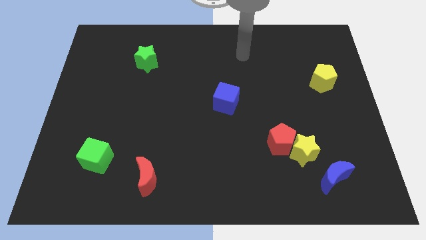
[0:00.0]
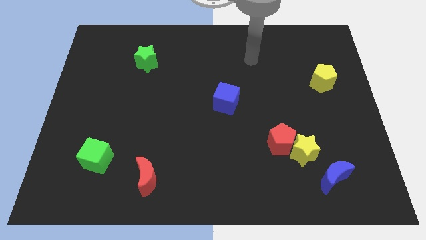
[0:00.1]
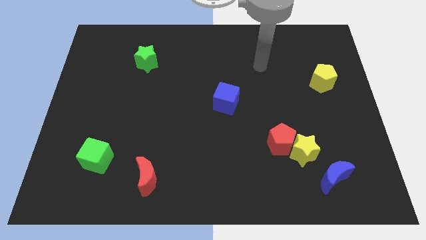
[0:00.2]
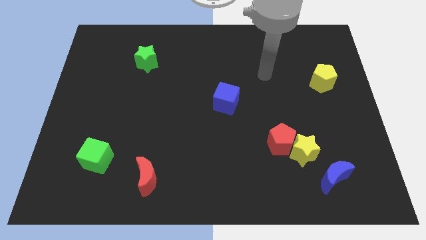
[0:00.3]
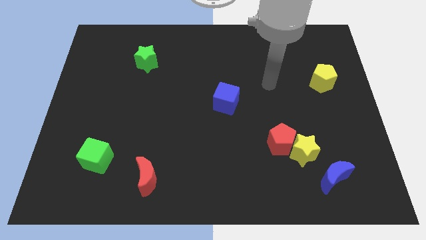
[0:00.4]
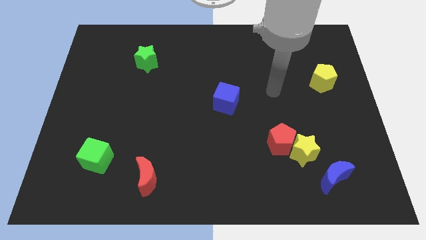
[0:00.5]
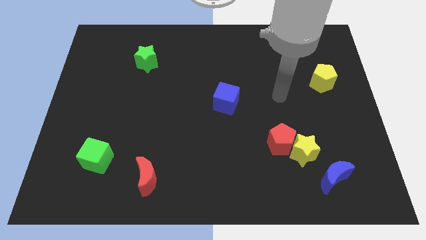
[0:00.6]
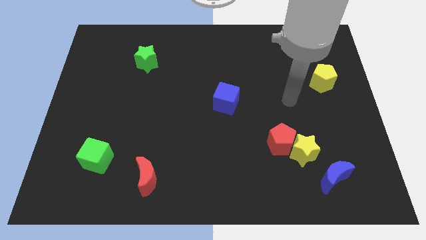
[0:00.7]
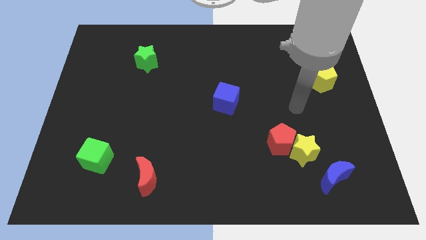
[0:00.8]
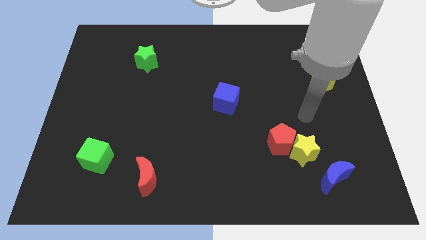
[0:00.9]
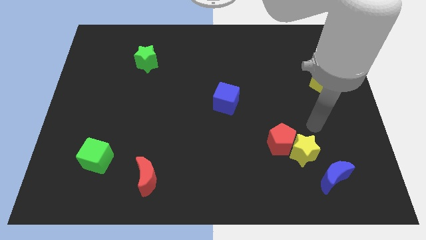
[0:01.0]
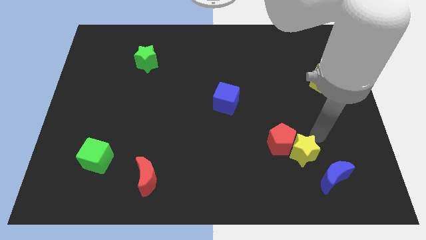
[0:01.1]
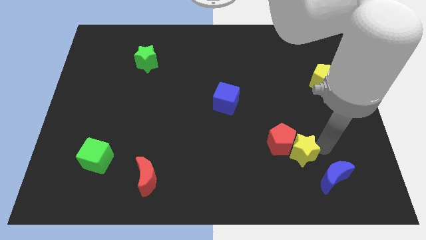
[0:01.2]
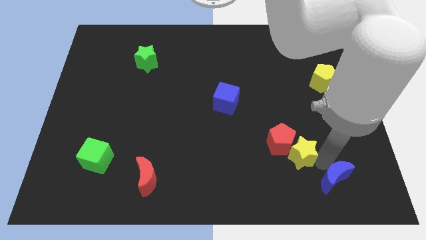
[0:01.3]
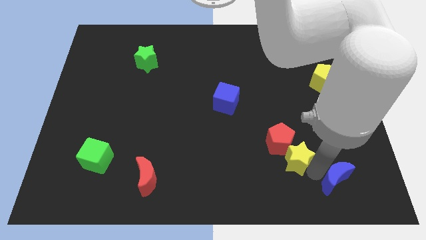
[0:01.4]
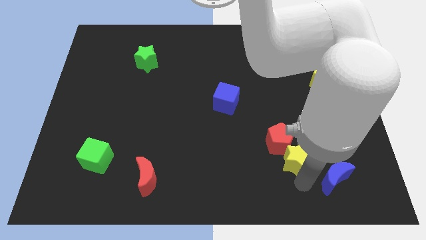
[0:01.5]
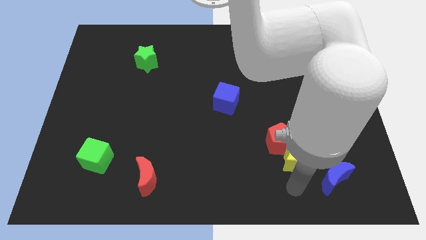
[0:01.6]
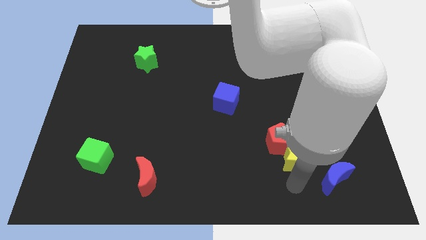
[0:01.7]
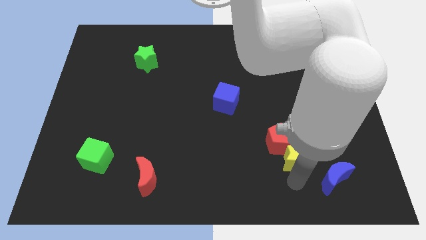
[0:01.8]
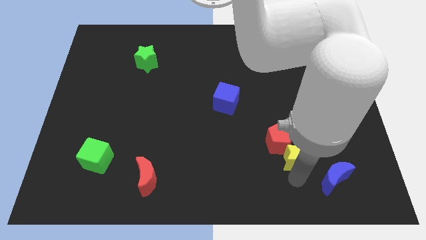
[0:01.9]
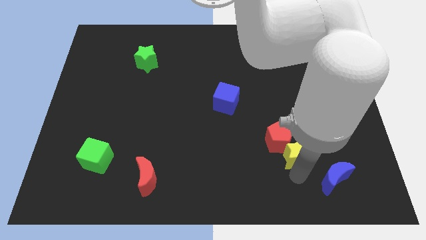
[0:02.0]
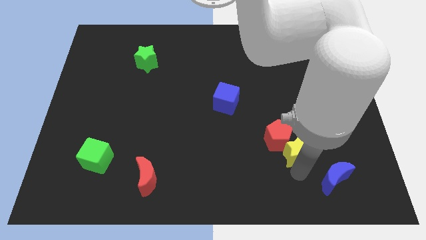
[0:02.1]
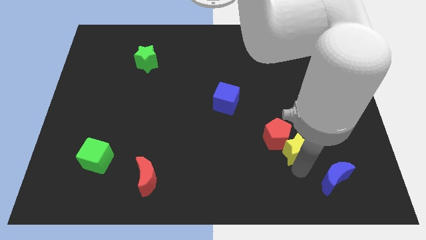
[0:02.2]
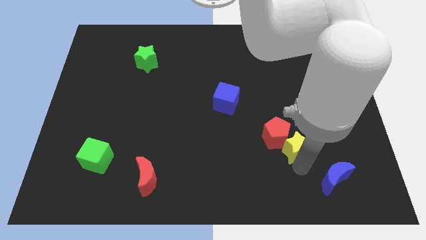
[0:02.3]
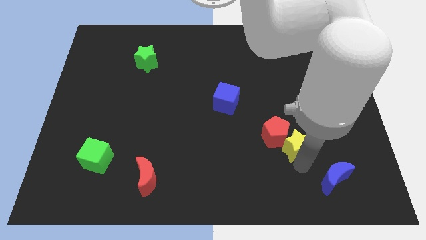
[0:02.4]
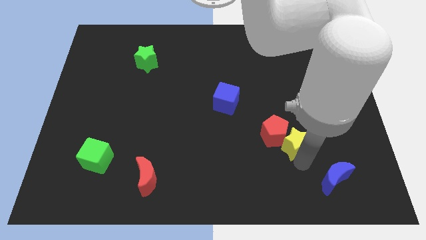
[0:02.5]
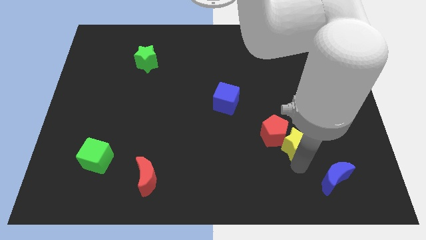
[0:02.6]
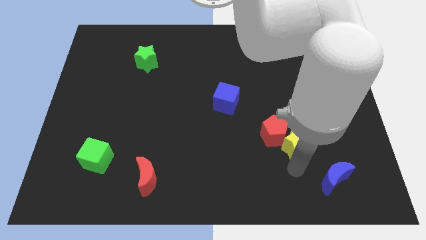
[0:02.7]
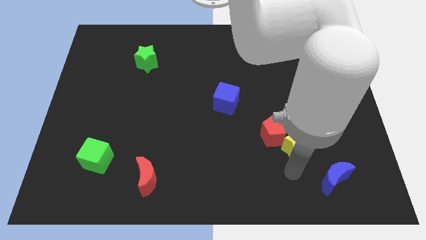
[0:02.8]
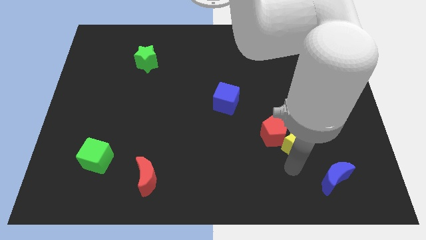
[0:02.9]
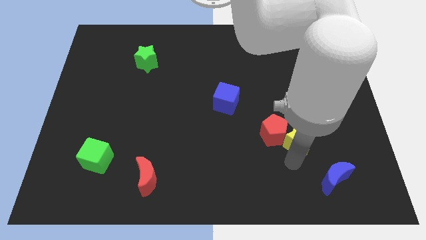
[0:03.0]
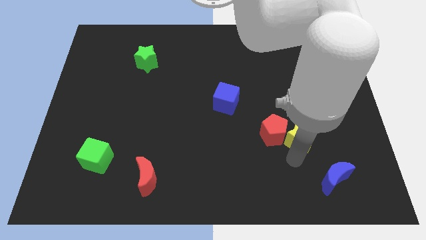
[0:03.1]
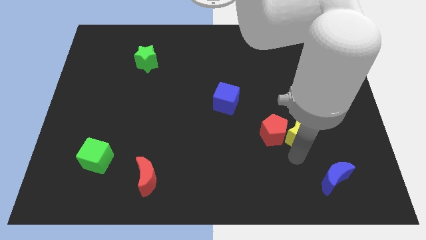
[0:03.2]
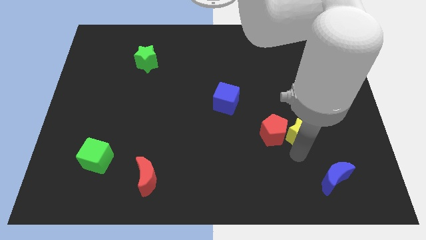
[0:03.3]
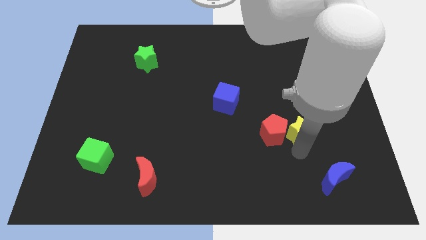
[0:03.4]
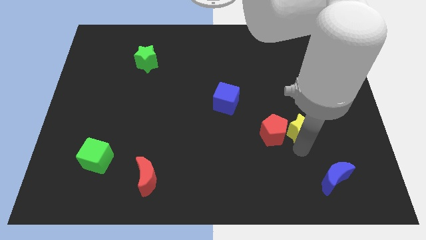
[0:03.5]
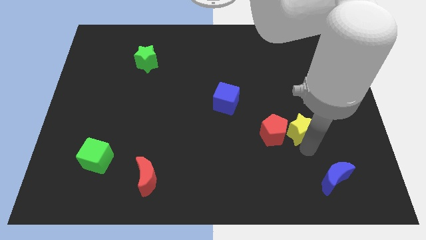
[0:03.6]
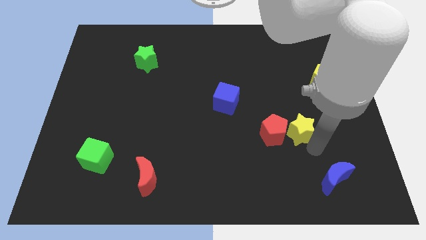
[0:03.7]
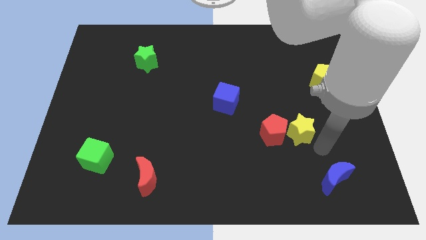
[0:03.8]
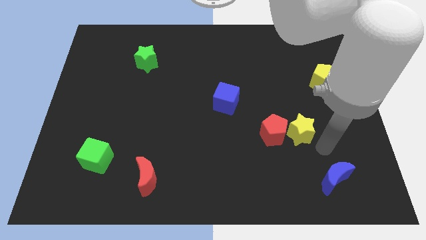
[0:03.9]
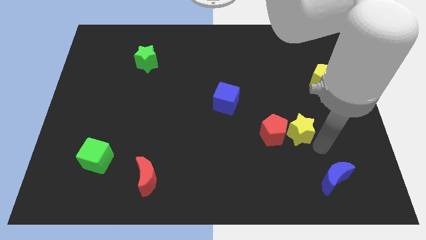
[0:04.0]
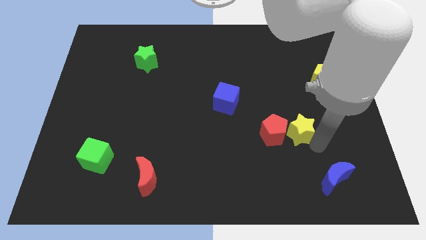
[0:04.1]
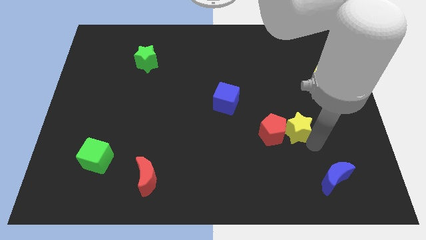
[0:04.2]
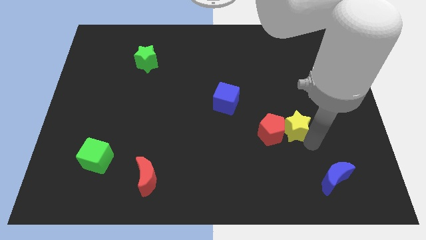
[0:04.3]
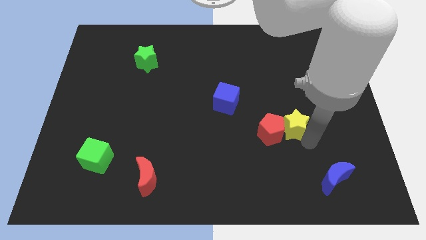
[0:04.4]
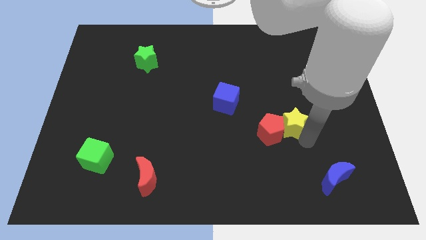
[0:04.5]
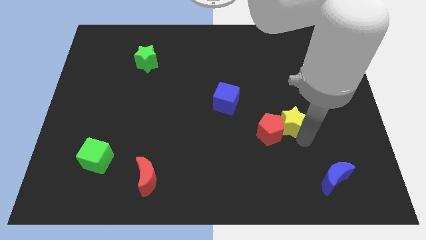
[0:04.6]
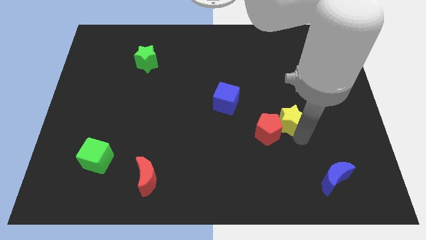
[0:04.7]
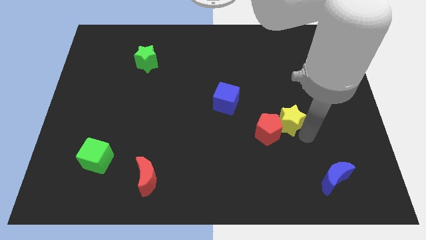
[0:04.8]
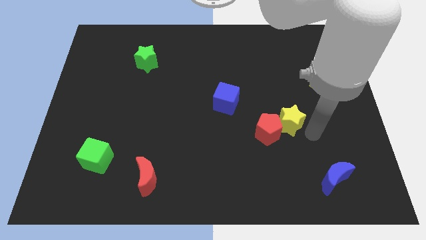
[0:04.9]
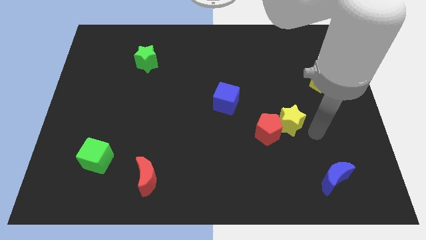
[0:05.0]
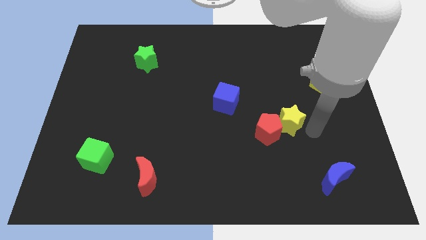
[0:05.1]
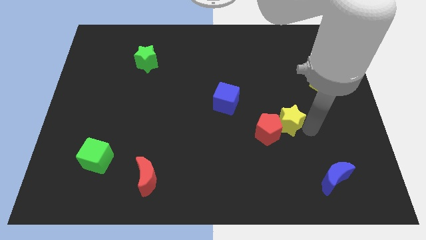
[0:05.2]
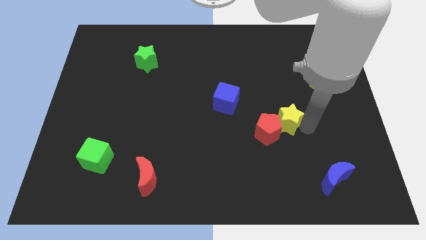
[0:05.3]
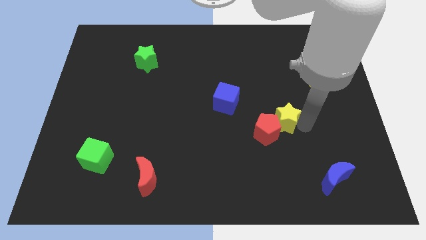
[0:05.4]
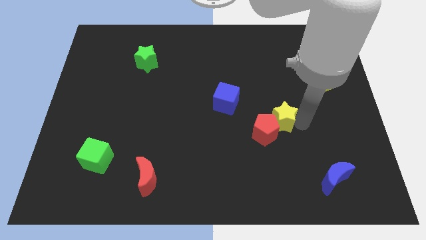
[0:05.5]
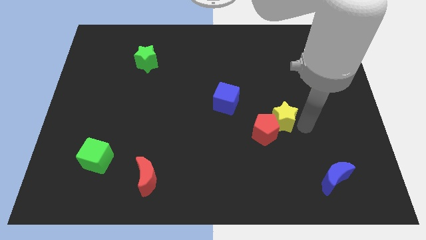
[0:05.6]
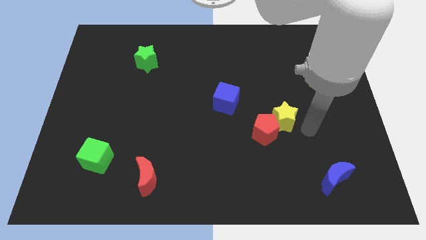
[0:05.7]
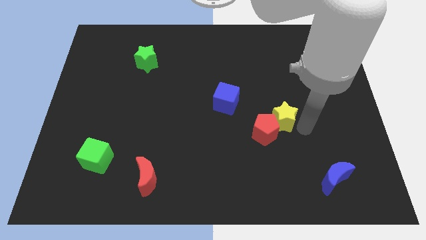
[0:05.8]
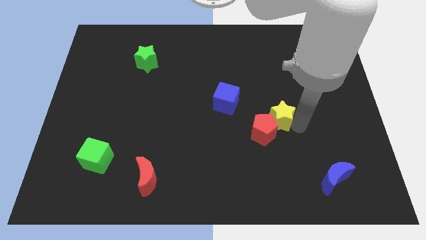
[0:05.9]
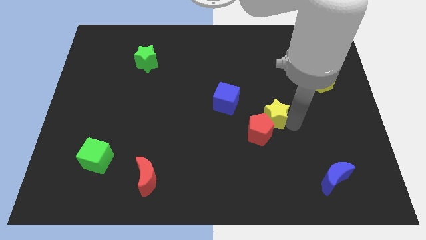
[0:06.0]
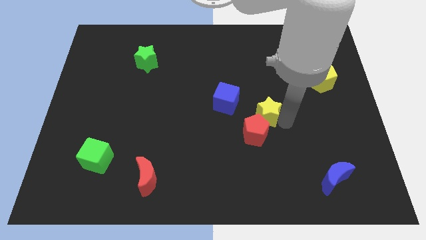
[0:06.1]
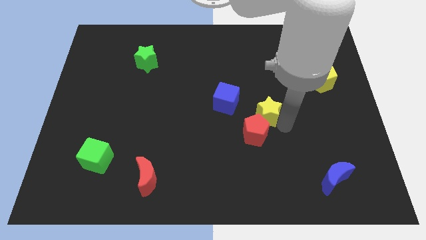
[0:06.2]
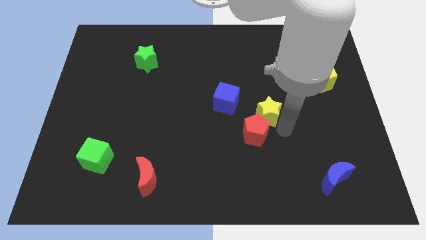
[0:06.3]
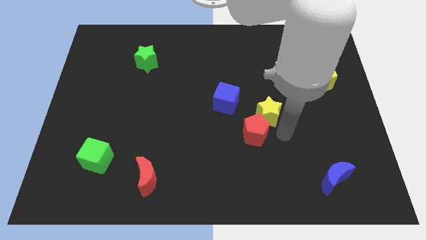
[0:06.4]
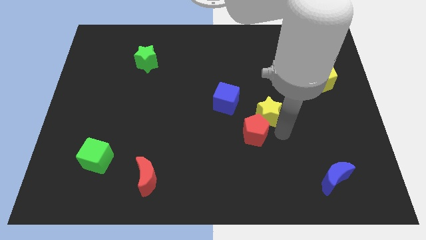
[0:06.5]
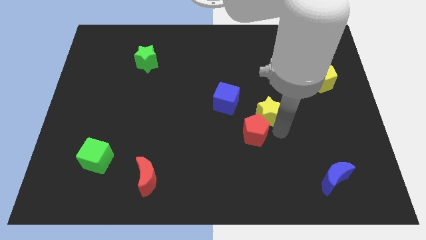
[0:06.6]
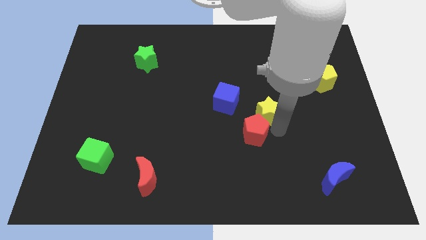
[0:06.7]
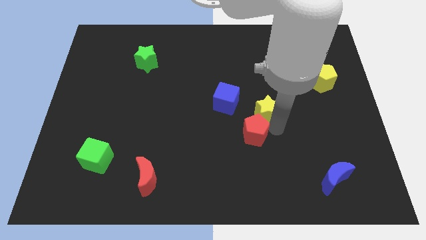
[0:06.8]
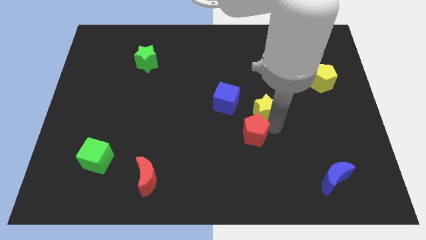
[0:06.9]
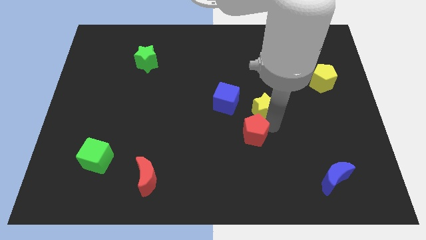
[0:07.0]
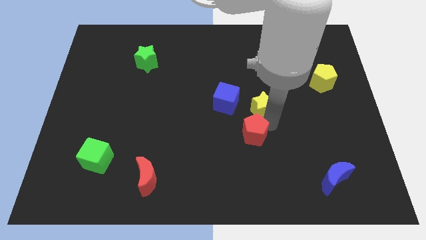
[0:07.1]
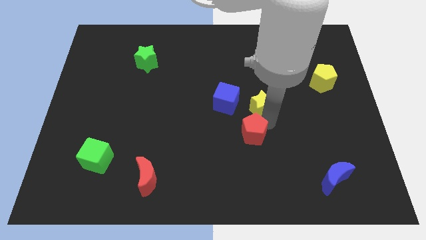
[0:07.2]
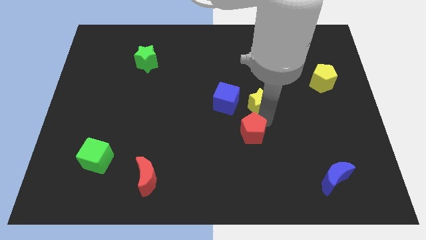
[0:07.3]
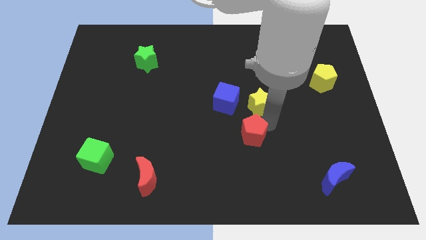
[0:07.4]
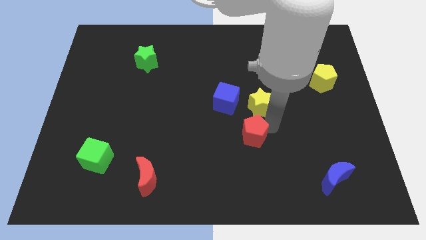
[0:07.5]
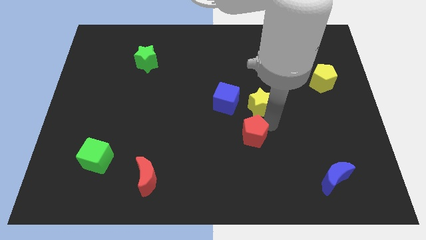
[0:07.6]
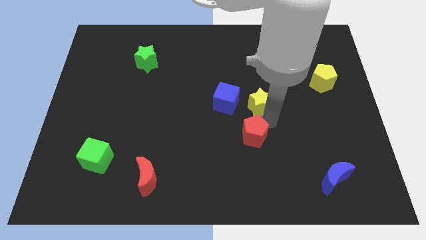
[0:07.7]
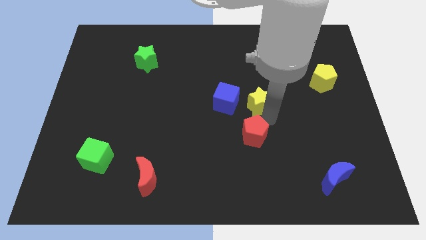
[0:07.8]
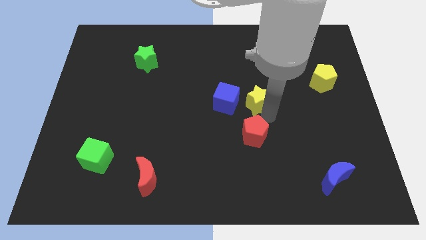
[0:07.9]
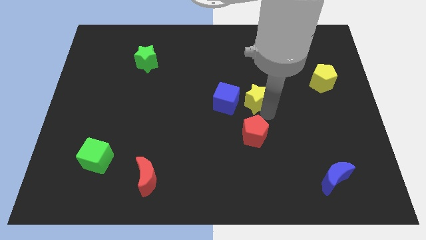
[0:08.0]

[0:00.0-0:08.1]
slide the yellow star to the top right of the blue cube
